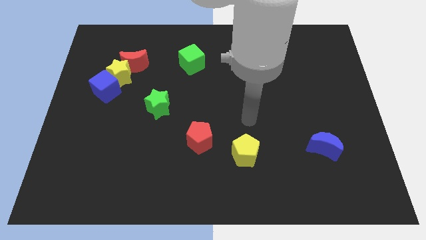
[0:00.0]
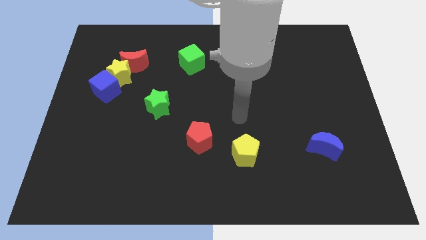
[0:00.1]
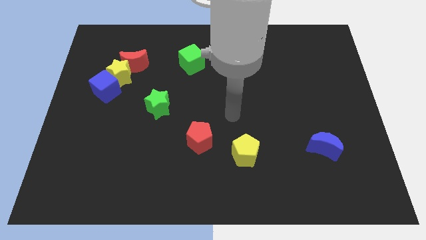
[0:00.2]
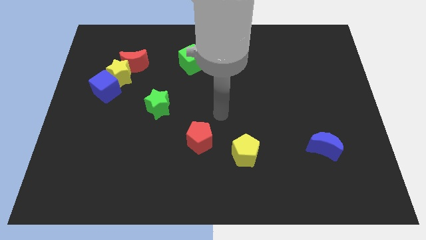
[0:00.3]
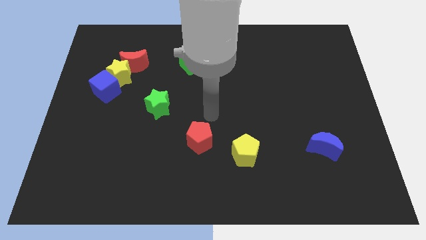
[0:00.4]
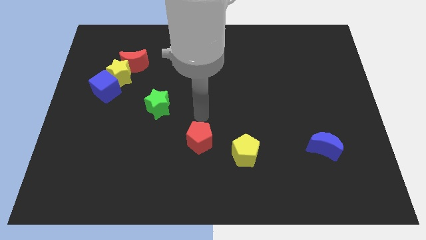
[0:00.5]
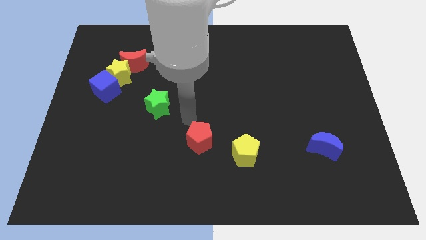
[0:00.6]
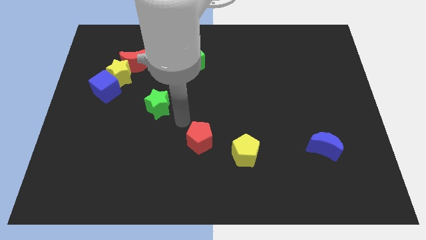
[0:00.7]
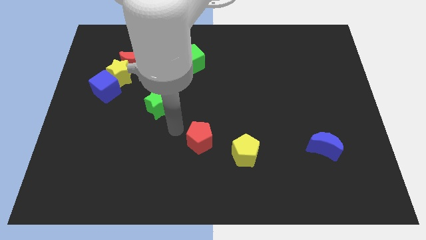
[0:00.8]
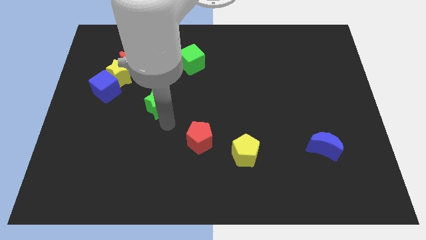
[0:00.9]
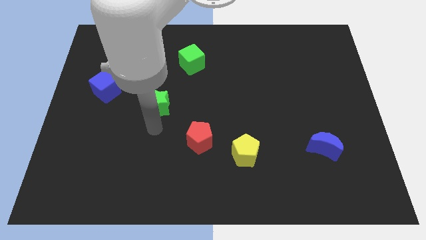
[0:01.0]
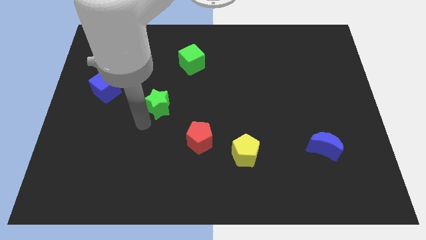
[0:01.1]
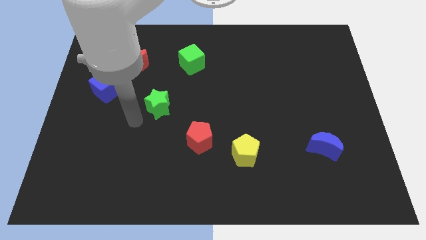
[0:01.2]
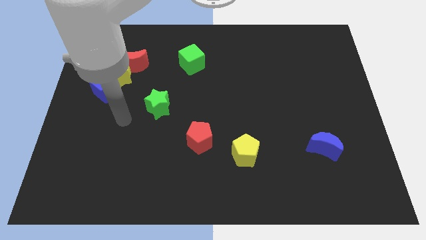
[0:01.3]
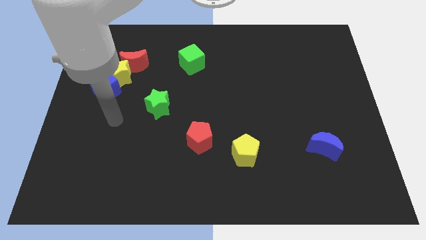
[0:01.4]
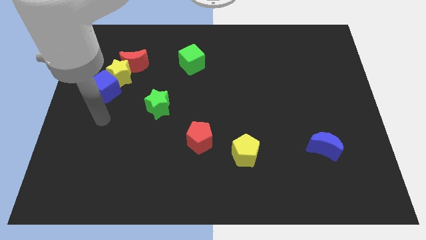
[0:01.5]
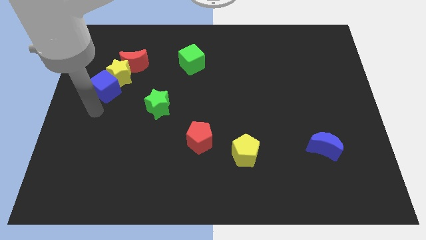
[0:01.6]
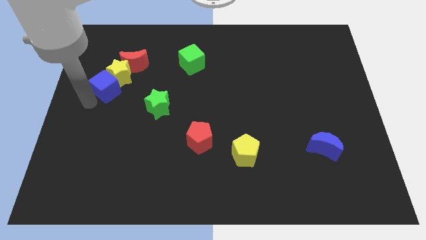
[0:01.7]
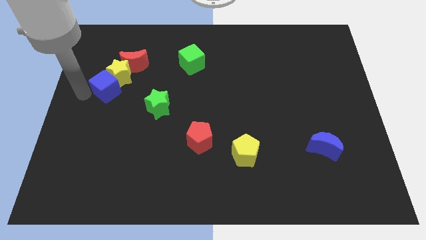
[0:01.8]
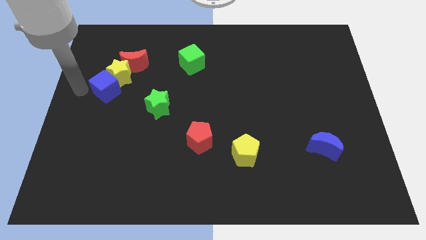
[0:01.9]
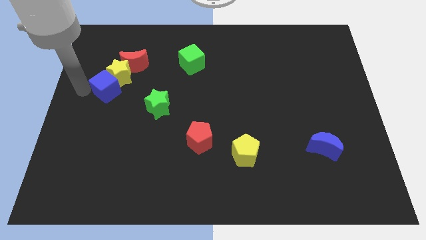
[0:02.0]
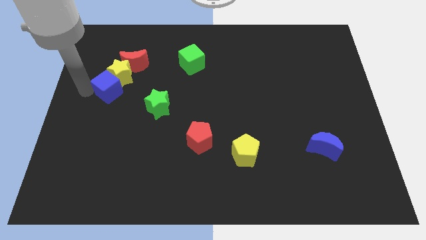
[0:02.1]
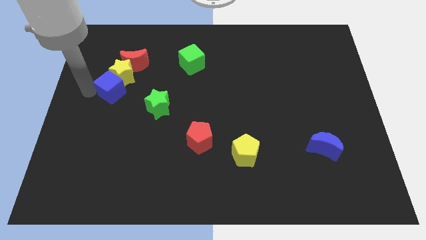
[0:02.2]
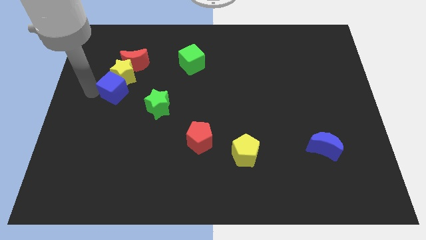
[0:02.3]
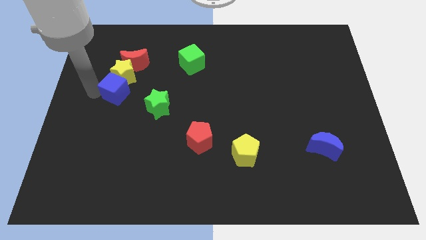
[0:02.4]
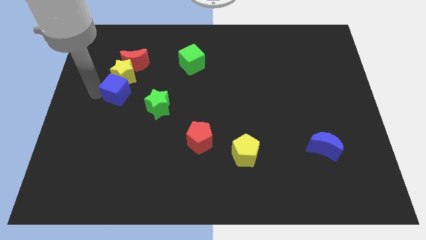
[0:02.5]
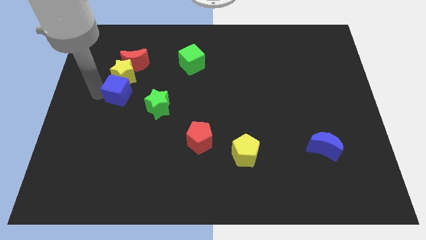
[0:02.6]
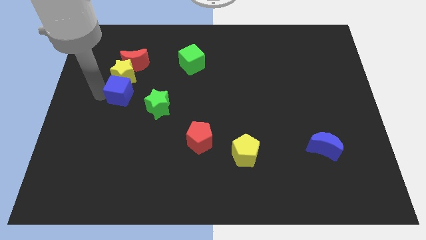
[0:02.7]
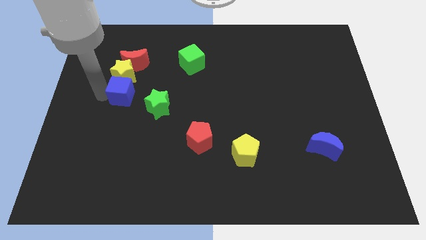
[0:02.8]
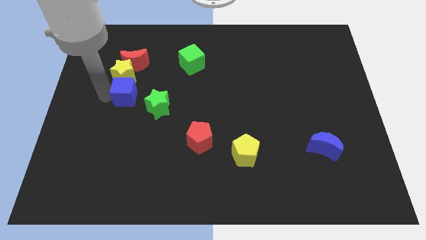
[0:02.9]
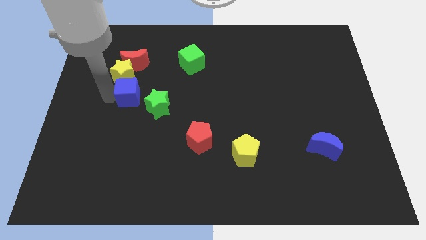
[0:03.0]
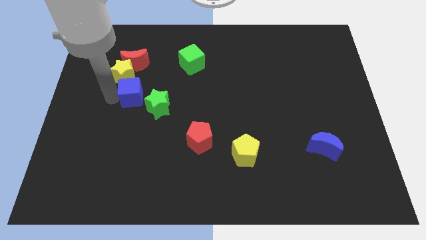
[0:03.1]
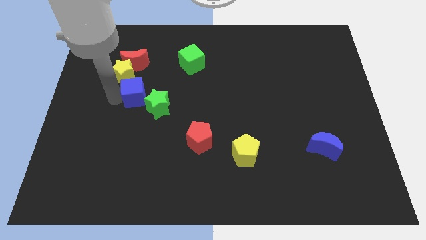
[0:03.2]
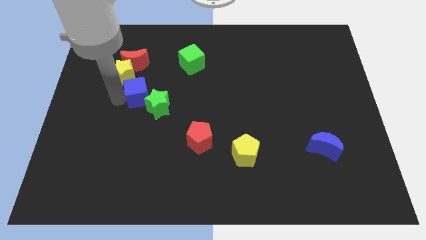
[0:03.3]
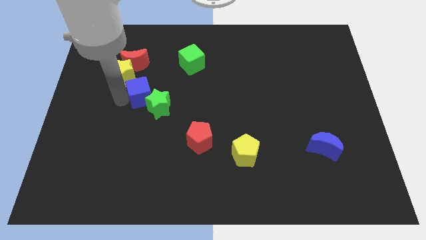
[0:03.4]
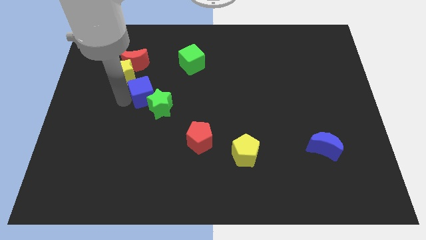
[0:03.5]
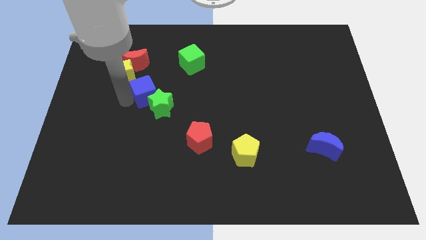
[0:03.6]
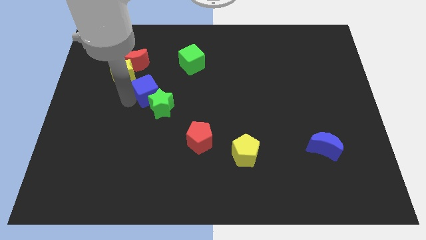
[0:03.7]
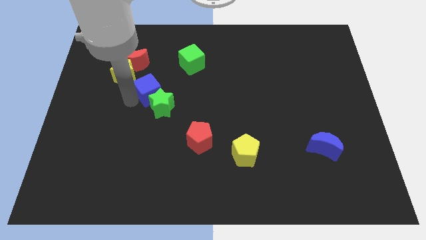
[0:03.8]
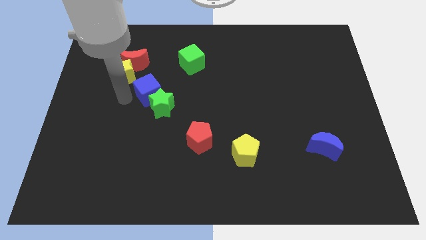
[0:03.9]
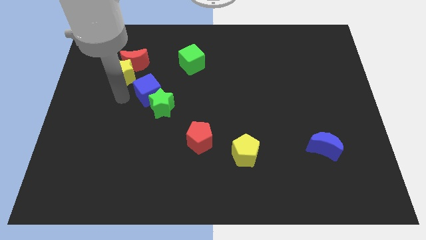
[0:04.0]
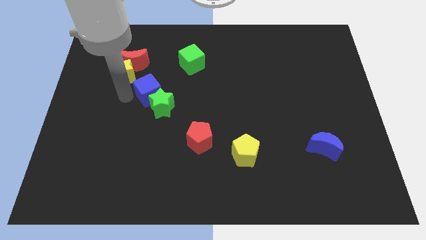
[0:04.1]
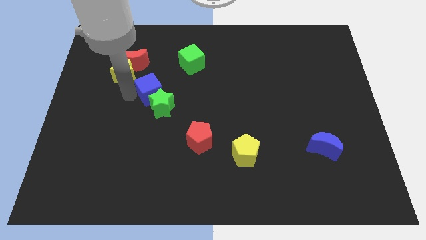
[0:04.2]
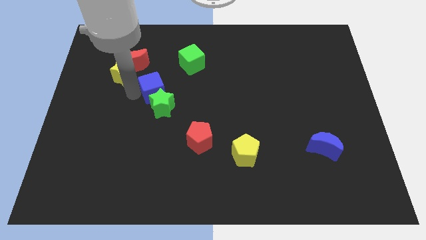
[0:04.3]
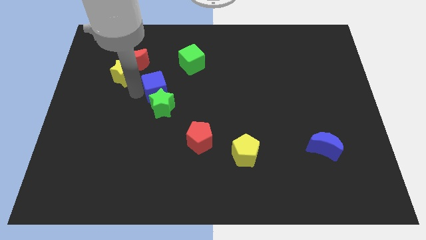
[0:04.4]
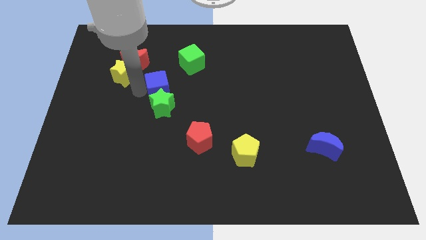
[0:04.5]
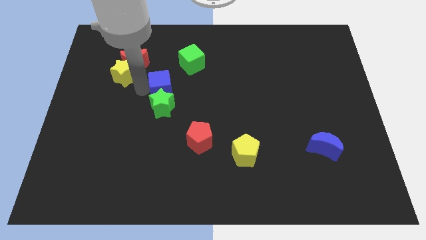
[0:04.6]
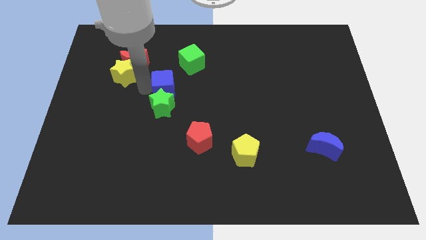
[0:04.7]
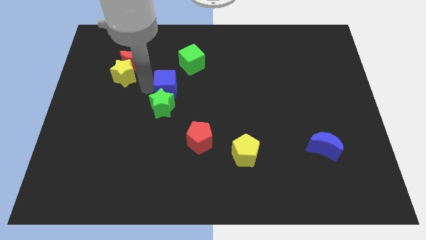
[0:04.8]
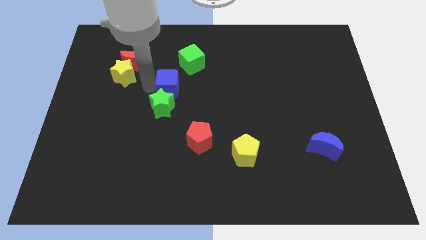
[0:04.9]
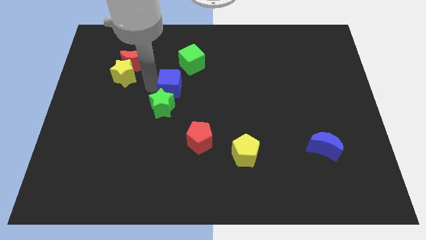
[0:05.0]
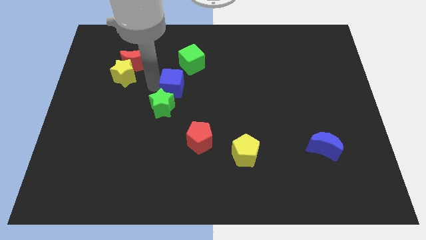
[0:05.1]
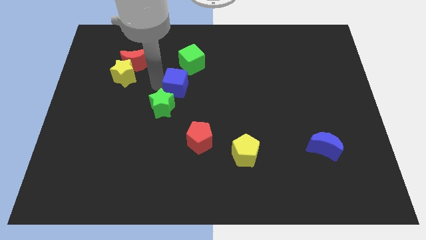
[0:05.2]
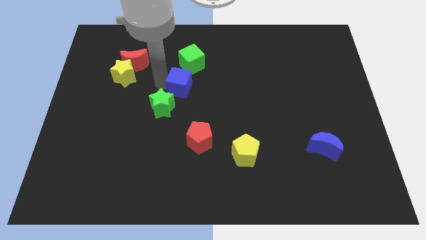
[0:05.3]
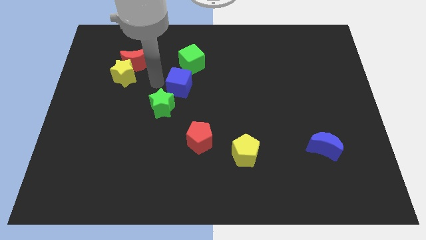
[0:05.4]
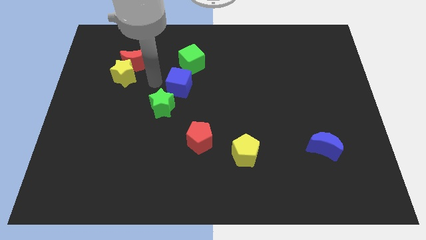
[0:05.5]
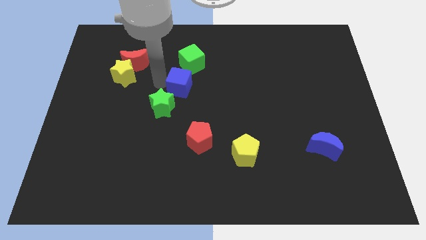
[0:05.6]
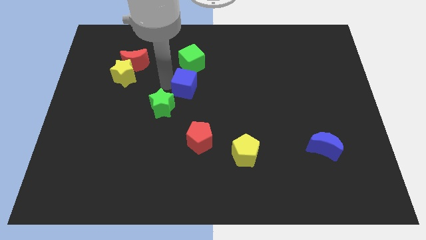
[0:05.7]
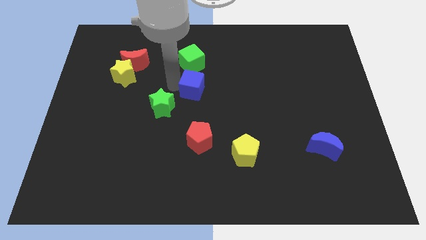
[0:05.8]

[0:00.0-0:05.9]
slide the blue cube to the right

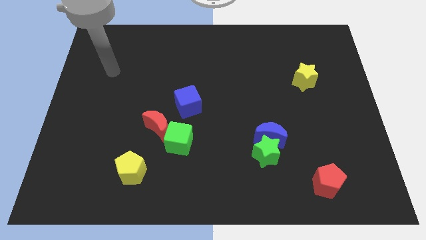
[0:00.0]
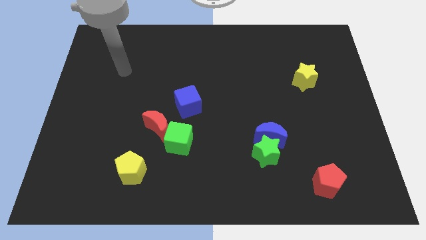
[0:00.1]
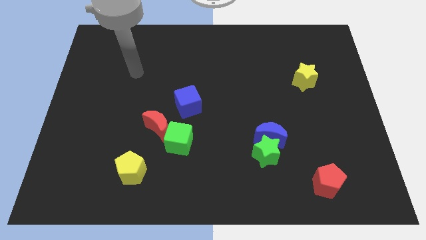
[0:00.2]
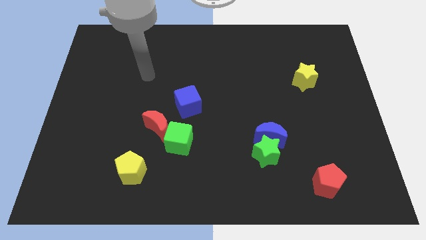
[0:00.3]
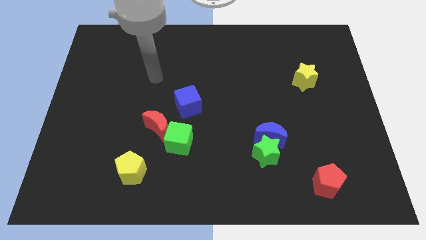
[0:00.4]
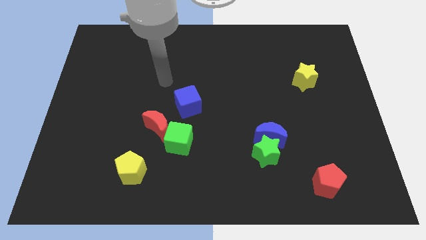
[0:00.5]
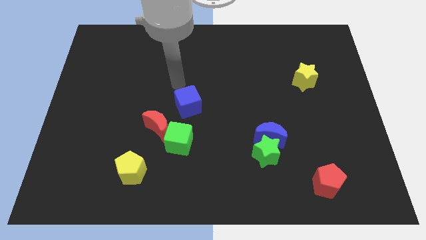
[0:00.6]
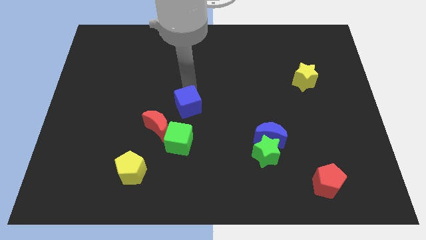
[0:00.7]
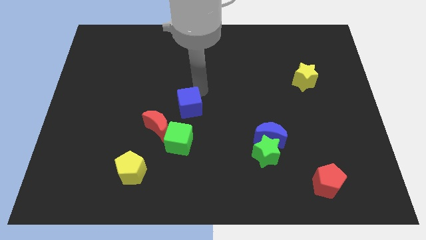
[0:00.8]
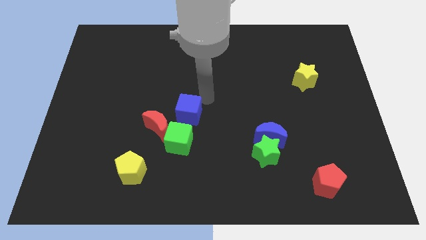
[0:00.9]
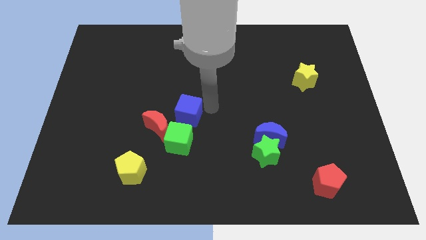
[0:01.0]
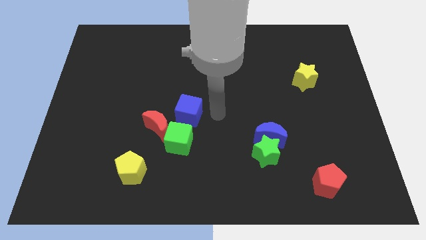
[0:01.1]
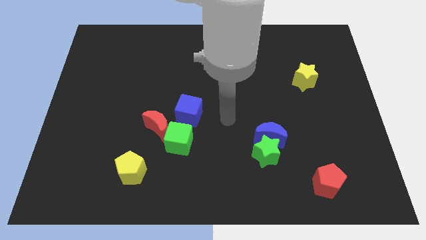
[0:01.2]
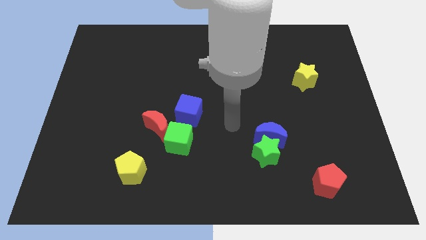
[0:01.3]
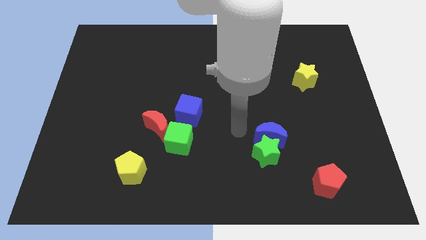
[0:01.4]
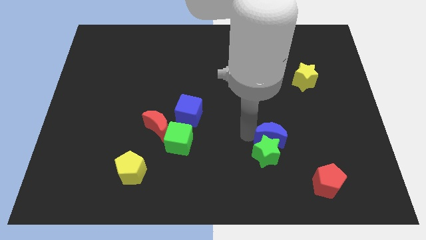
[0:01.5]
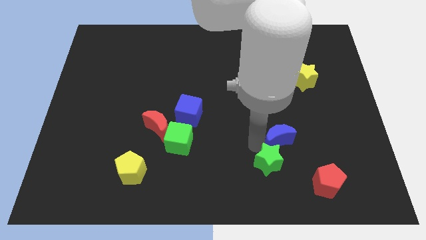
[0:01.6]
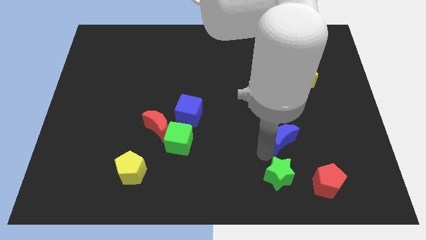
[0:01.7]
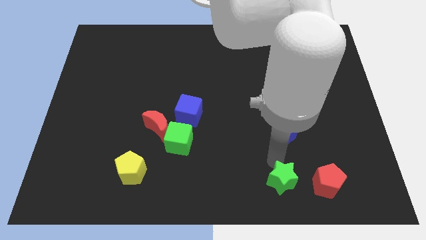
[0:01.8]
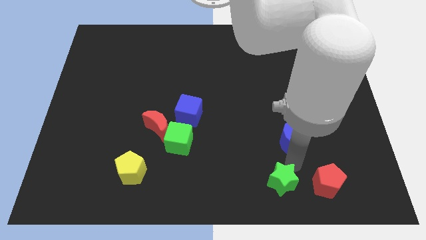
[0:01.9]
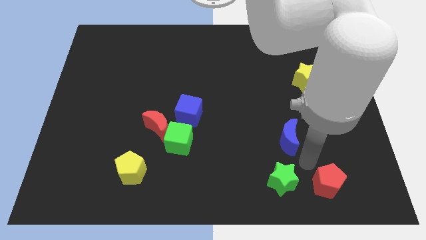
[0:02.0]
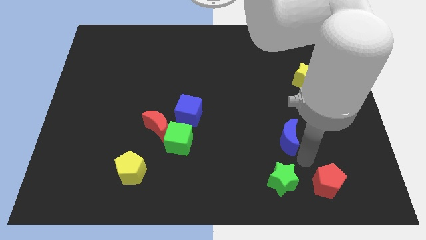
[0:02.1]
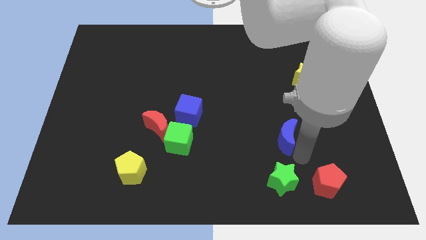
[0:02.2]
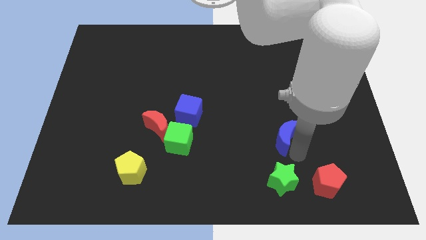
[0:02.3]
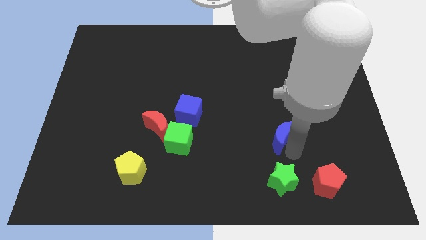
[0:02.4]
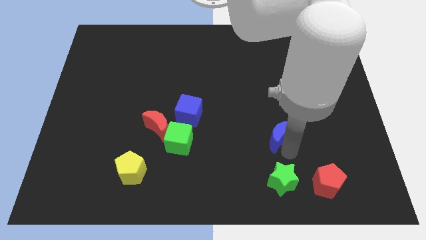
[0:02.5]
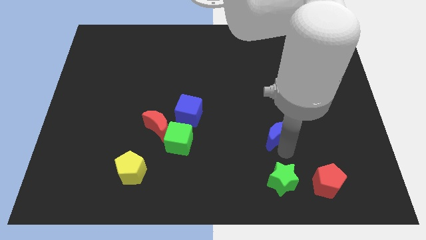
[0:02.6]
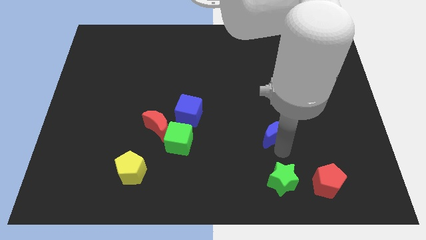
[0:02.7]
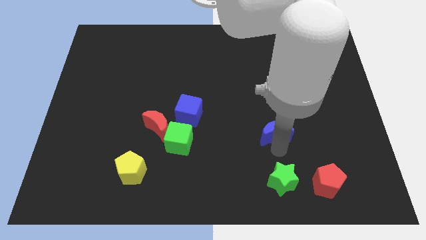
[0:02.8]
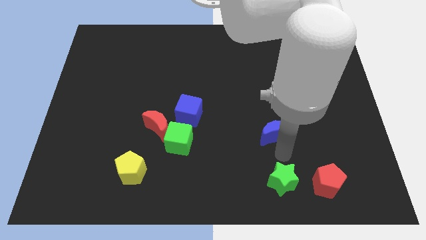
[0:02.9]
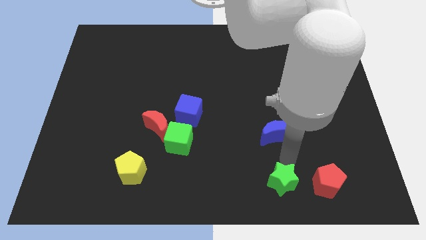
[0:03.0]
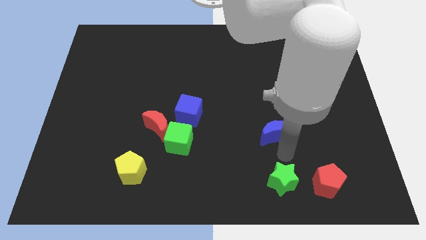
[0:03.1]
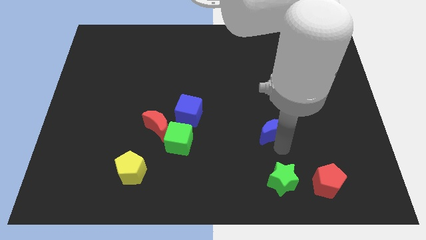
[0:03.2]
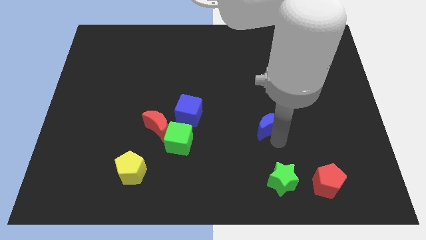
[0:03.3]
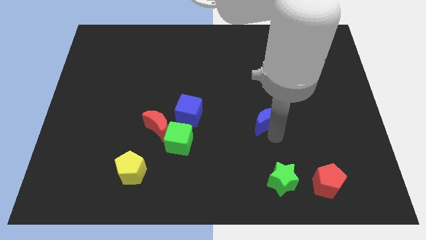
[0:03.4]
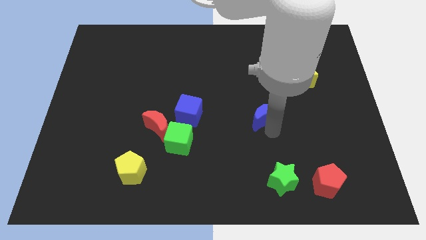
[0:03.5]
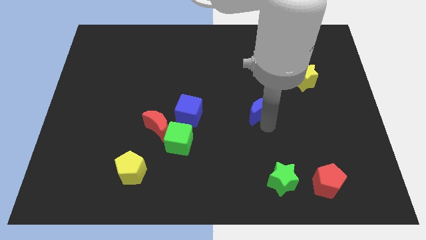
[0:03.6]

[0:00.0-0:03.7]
push the blue moon up a little bit
